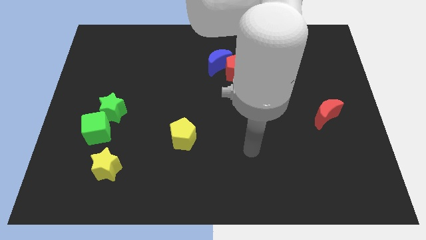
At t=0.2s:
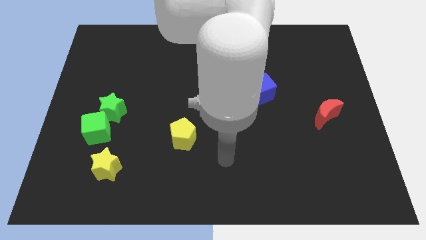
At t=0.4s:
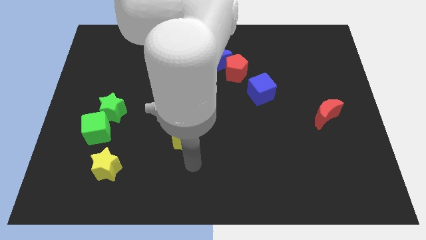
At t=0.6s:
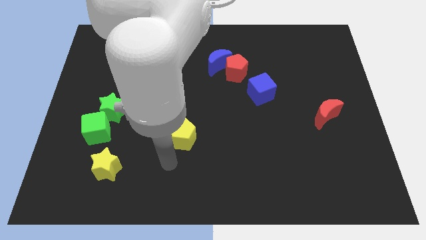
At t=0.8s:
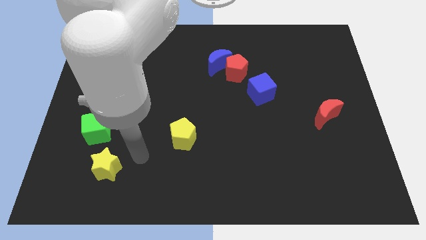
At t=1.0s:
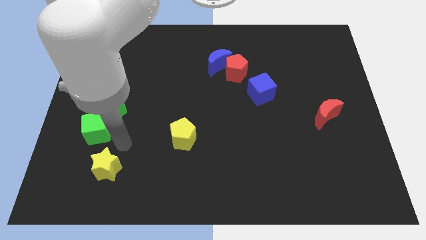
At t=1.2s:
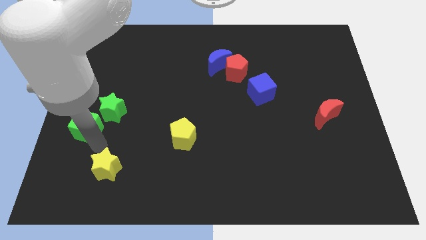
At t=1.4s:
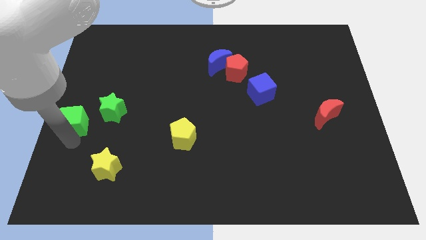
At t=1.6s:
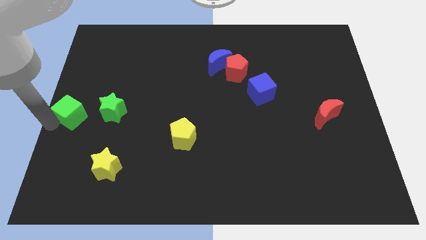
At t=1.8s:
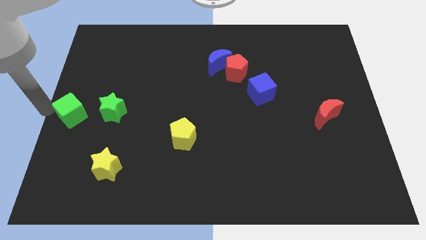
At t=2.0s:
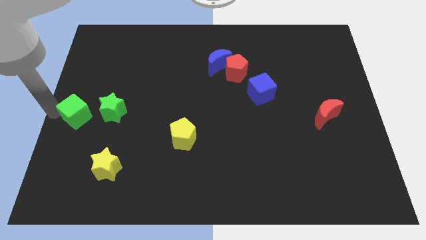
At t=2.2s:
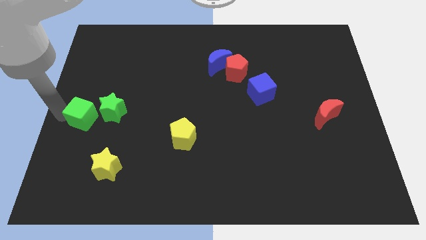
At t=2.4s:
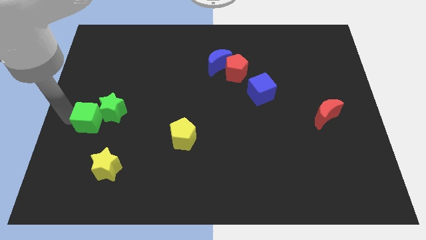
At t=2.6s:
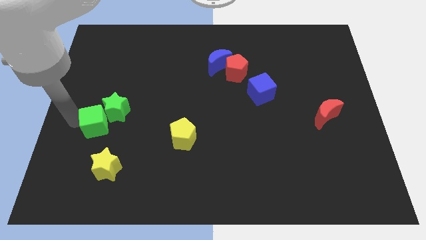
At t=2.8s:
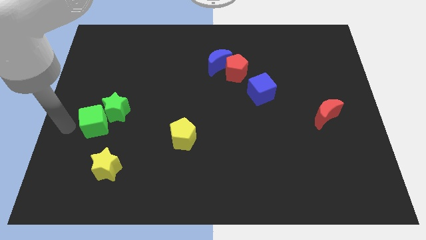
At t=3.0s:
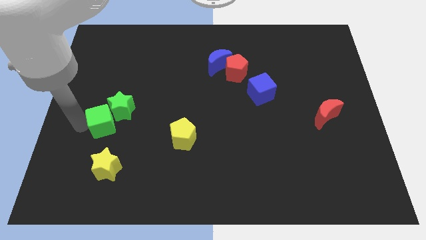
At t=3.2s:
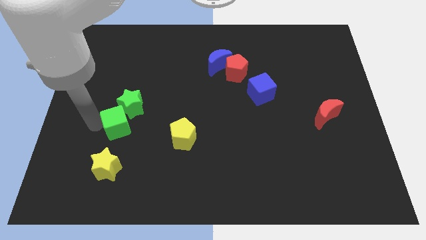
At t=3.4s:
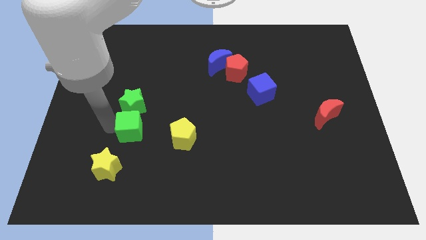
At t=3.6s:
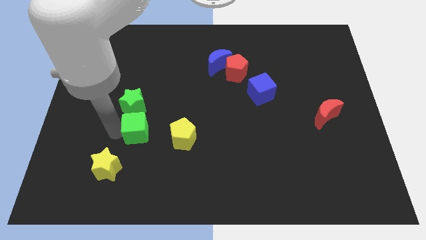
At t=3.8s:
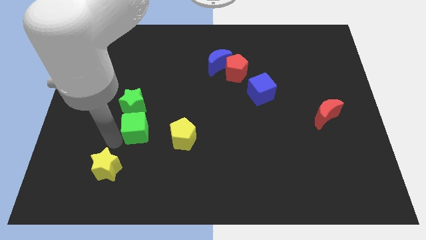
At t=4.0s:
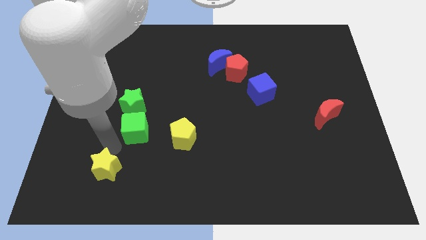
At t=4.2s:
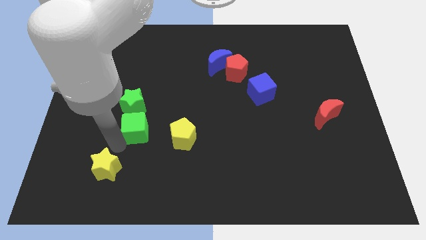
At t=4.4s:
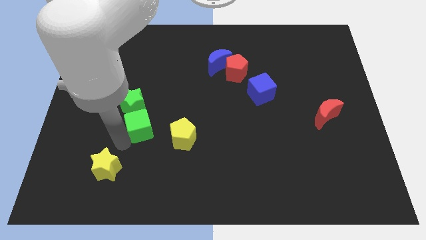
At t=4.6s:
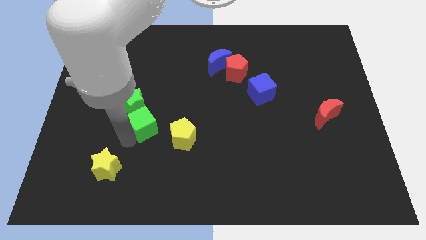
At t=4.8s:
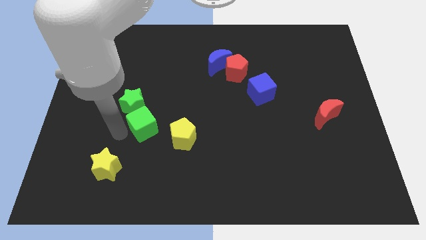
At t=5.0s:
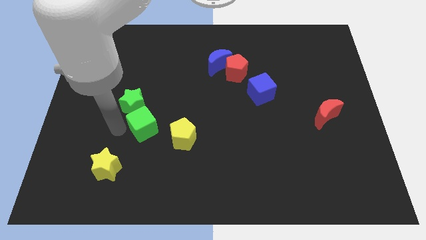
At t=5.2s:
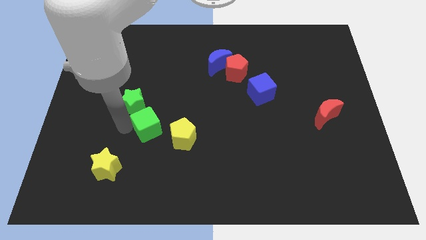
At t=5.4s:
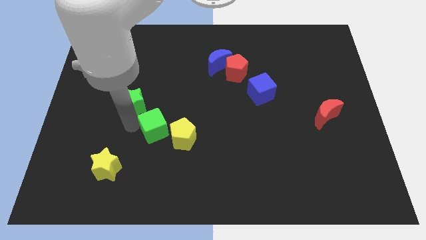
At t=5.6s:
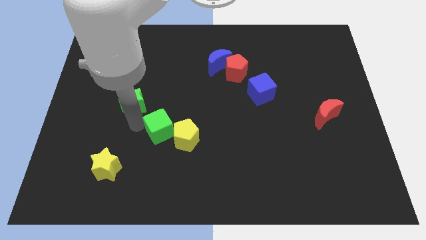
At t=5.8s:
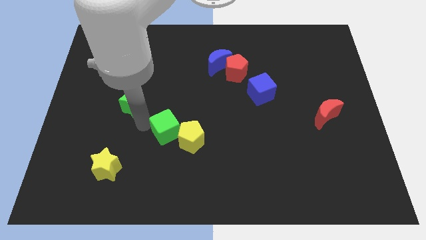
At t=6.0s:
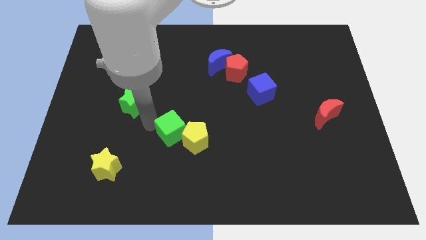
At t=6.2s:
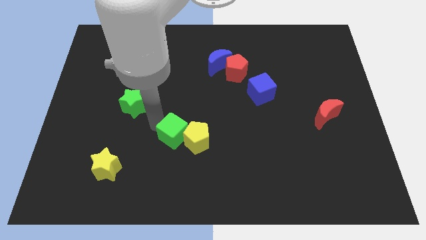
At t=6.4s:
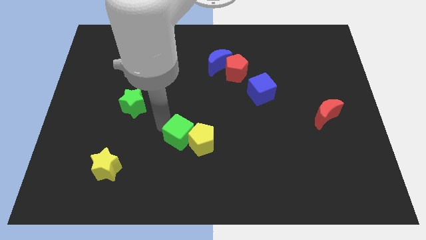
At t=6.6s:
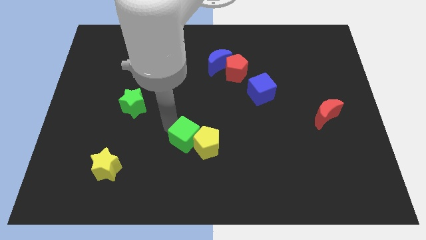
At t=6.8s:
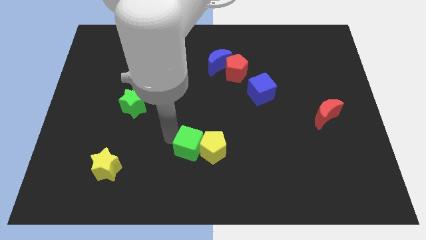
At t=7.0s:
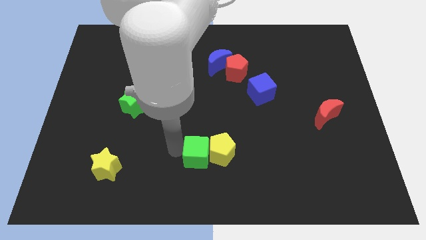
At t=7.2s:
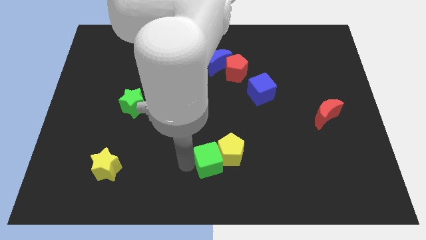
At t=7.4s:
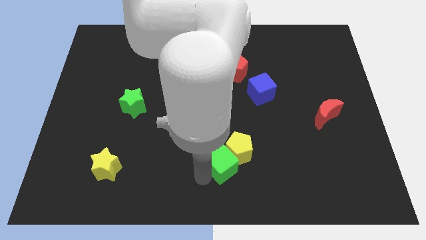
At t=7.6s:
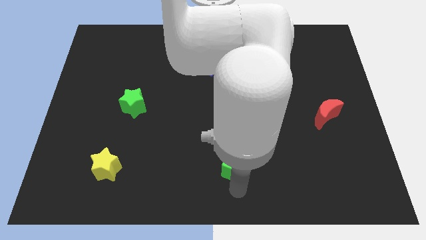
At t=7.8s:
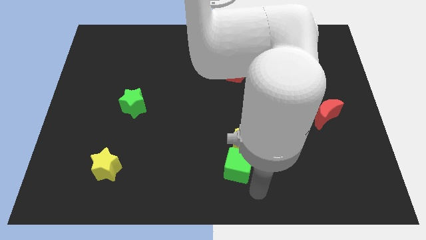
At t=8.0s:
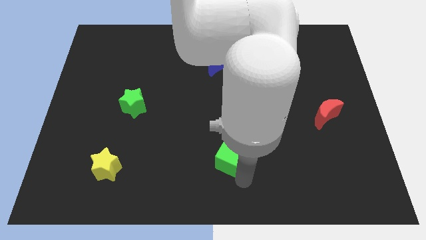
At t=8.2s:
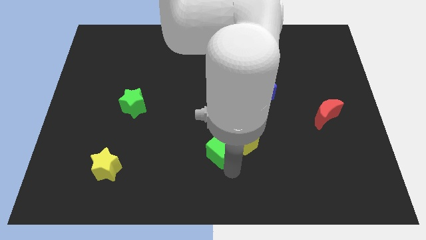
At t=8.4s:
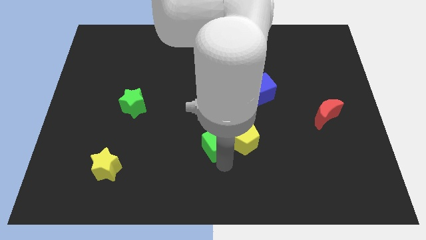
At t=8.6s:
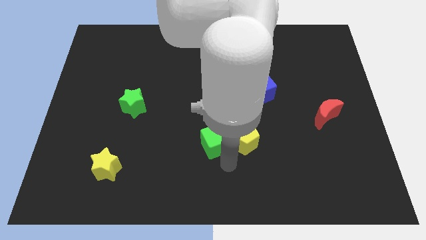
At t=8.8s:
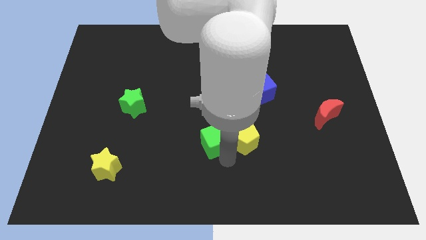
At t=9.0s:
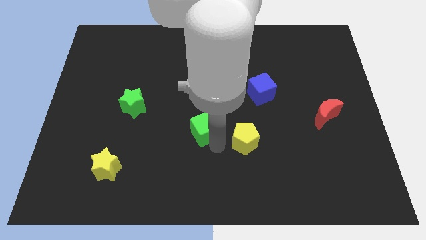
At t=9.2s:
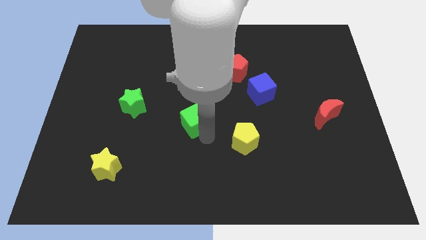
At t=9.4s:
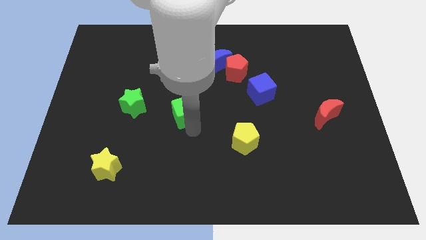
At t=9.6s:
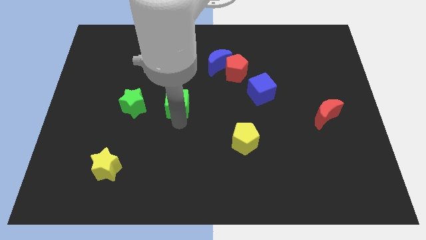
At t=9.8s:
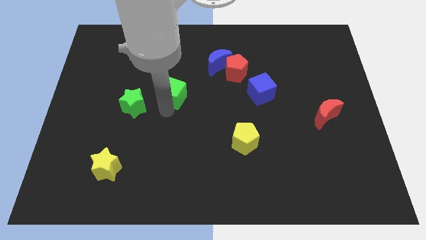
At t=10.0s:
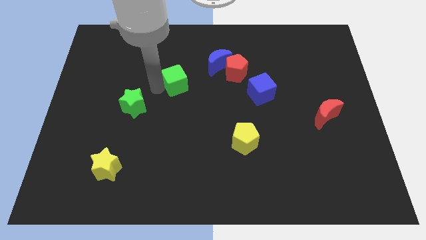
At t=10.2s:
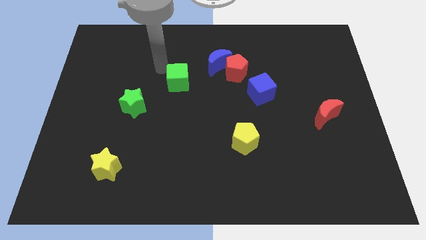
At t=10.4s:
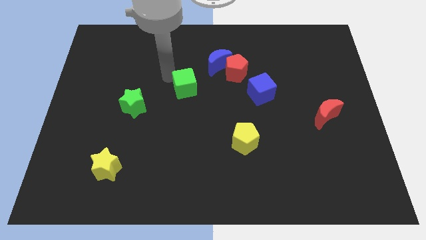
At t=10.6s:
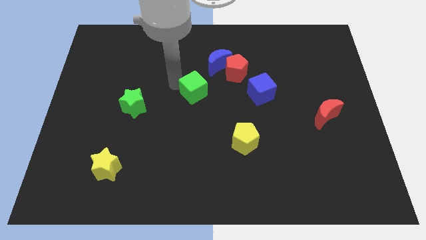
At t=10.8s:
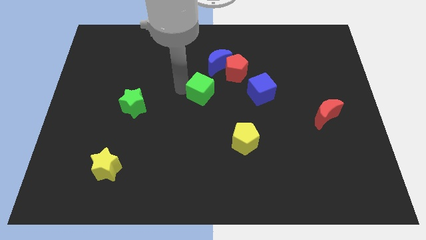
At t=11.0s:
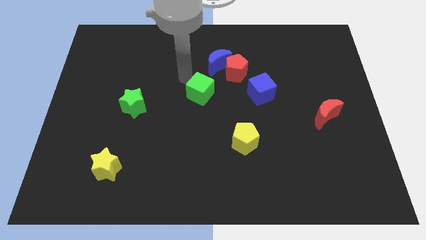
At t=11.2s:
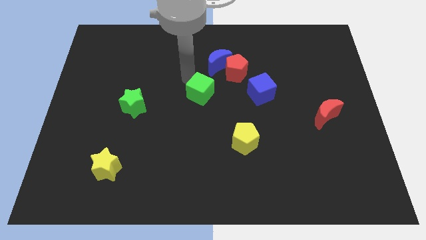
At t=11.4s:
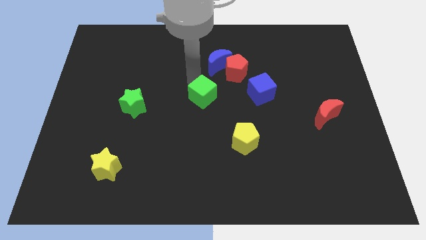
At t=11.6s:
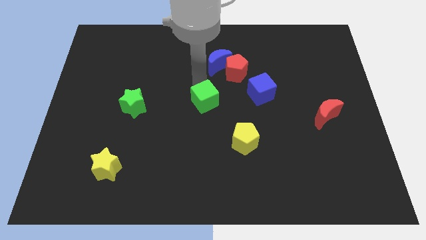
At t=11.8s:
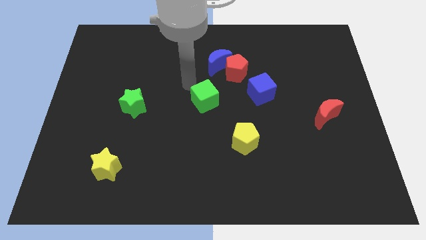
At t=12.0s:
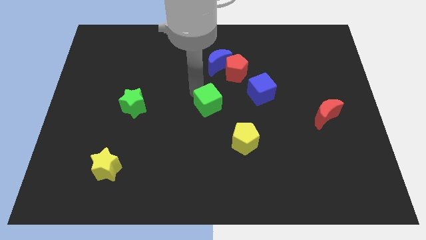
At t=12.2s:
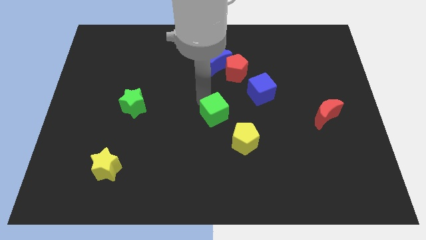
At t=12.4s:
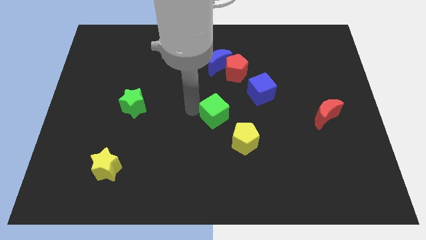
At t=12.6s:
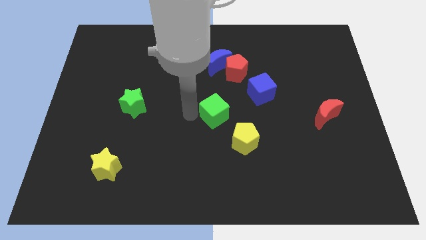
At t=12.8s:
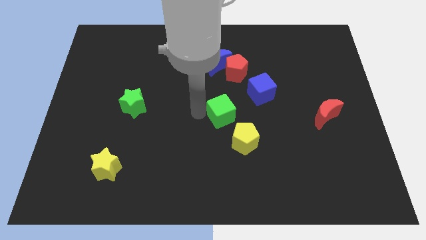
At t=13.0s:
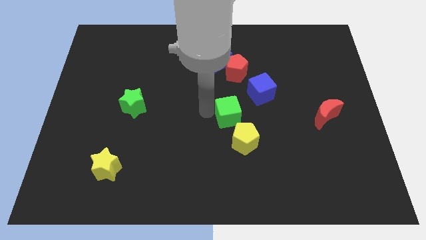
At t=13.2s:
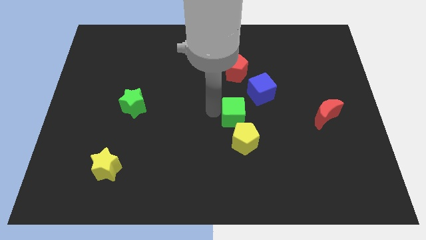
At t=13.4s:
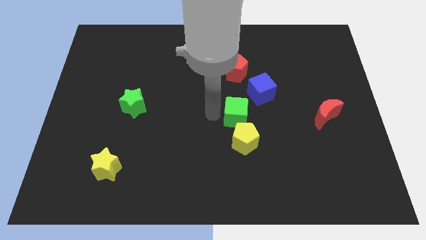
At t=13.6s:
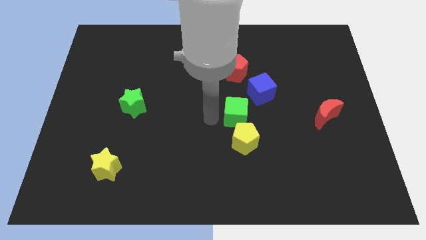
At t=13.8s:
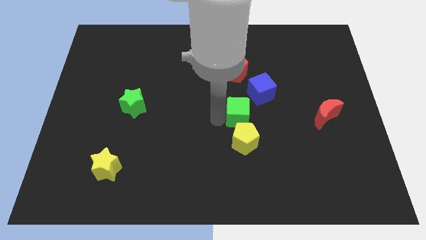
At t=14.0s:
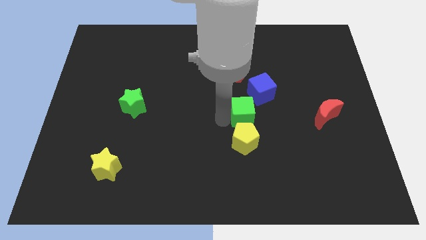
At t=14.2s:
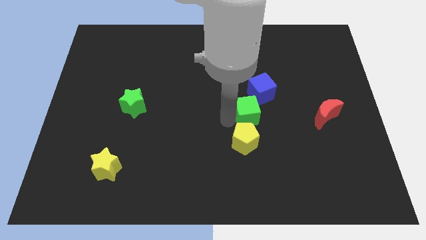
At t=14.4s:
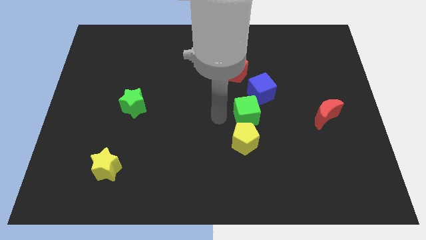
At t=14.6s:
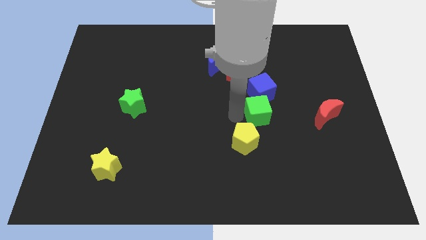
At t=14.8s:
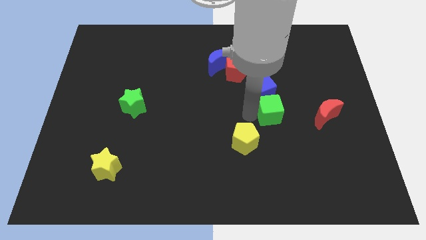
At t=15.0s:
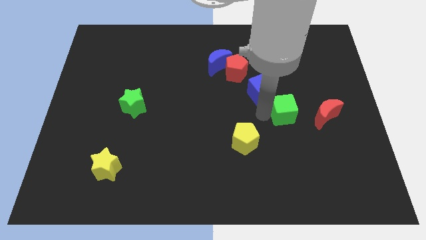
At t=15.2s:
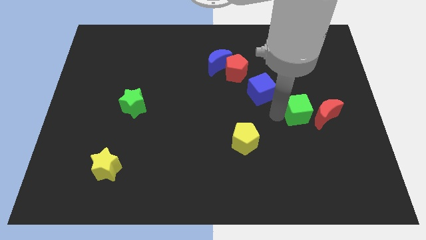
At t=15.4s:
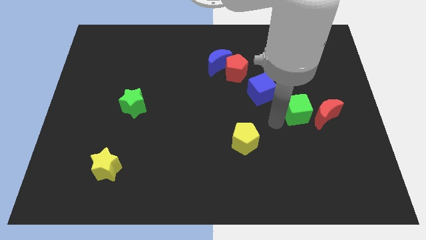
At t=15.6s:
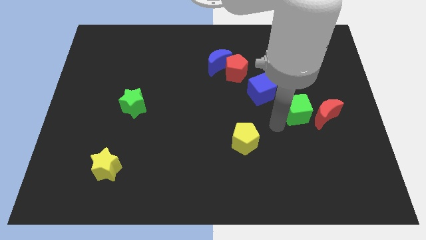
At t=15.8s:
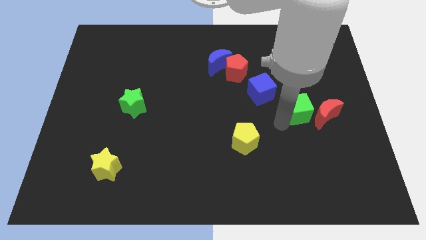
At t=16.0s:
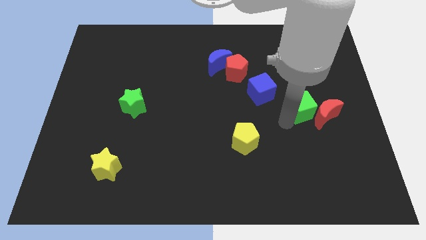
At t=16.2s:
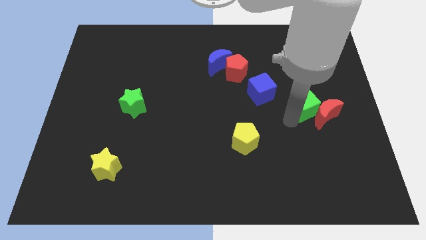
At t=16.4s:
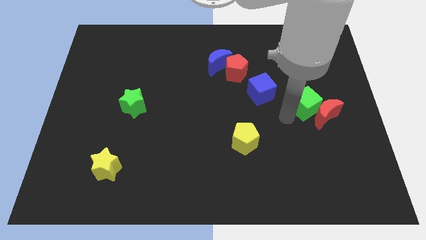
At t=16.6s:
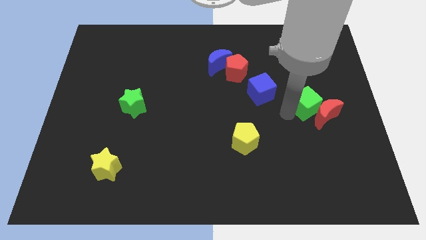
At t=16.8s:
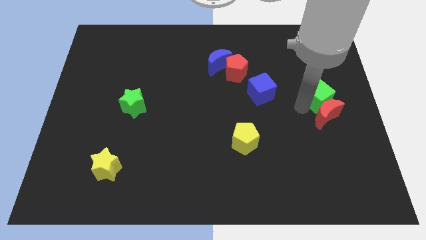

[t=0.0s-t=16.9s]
put the green cube to the right side
